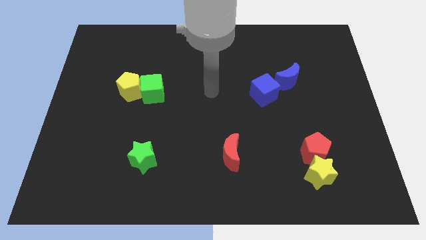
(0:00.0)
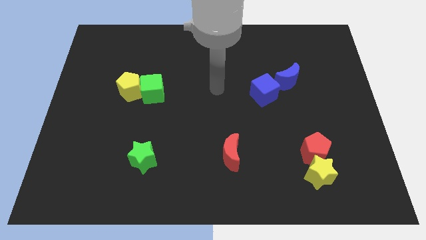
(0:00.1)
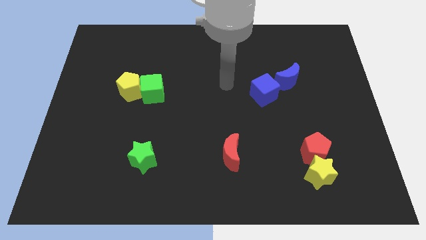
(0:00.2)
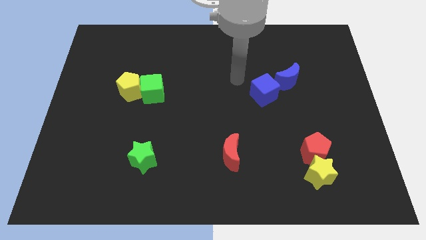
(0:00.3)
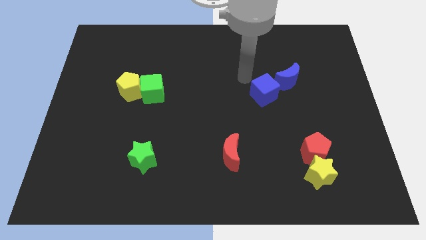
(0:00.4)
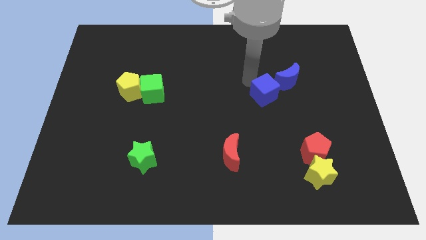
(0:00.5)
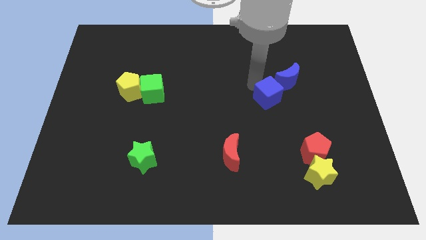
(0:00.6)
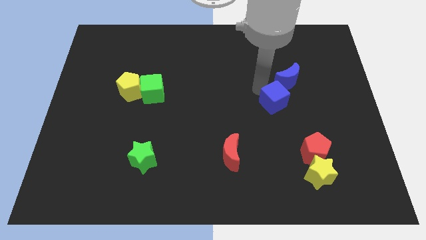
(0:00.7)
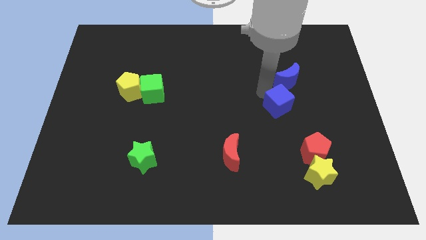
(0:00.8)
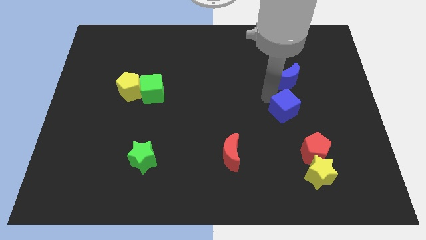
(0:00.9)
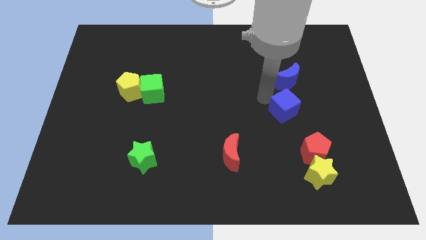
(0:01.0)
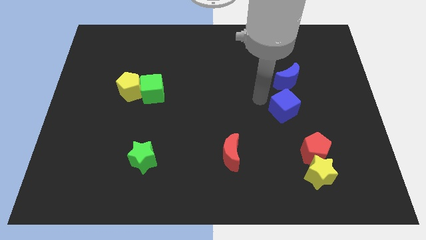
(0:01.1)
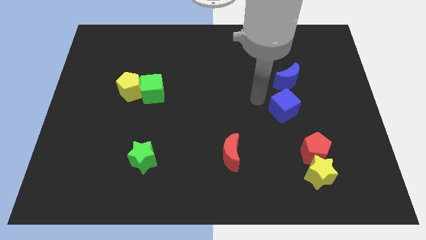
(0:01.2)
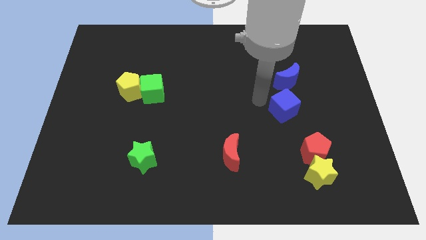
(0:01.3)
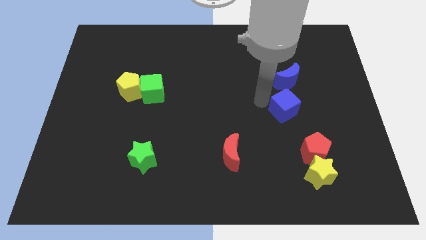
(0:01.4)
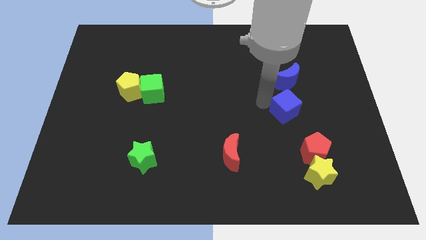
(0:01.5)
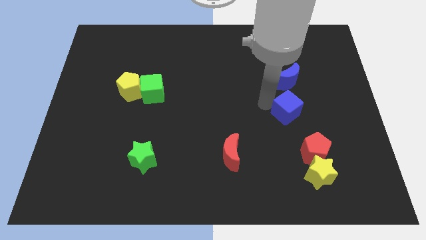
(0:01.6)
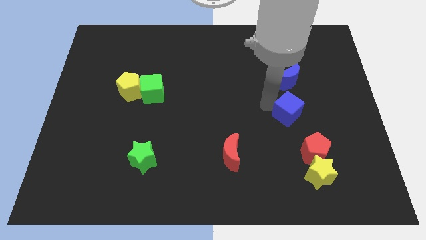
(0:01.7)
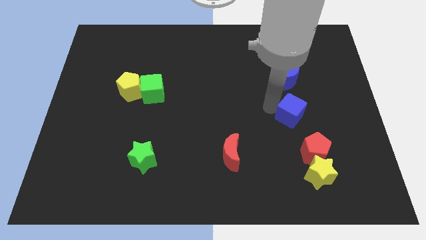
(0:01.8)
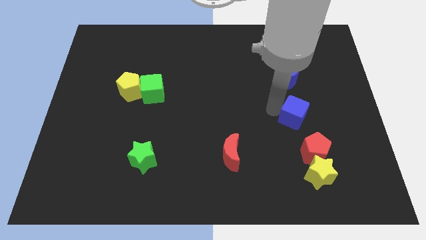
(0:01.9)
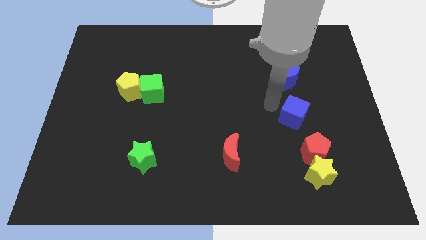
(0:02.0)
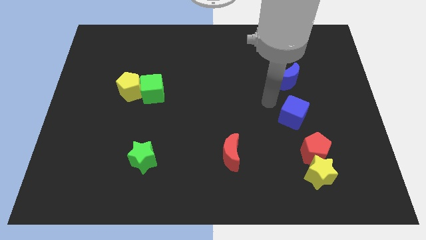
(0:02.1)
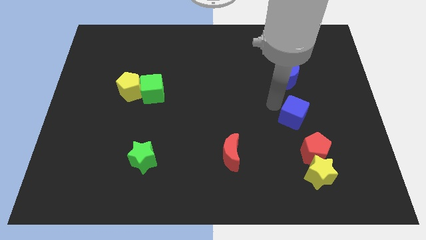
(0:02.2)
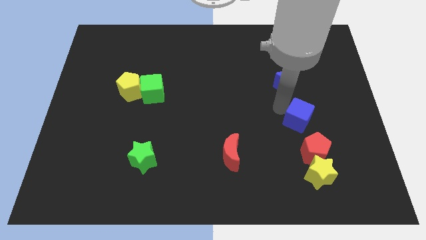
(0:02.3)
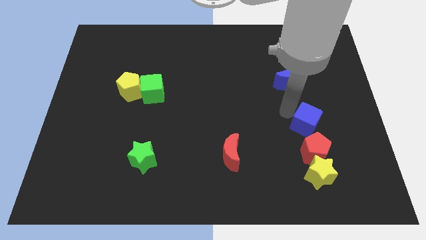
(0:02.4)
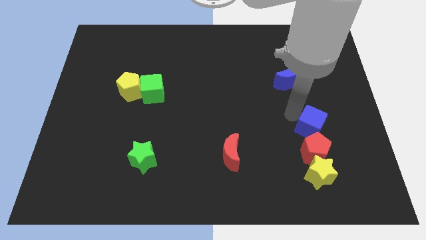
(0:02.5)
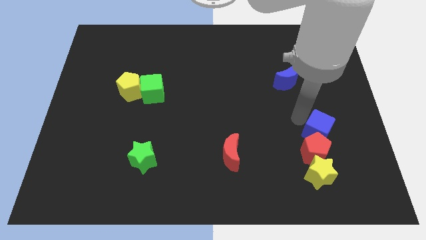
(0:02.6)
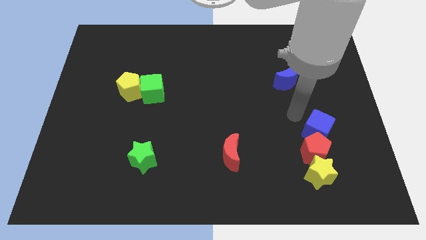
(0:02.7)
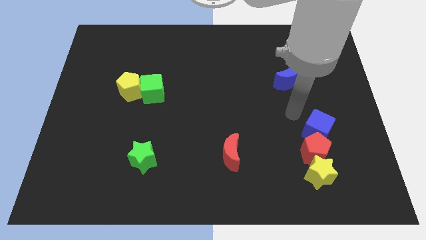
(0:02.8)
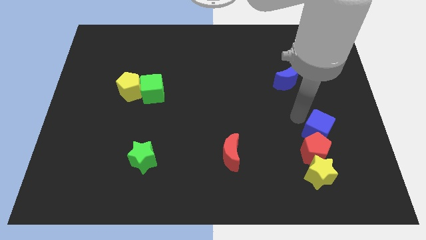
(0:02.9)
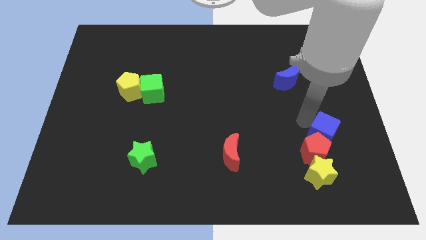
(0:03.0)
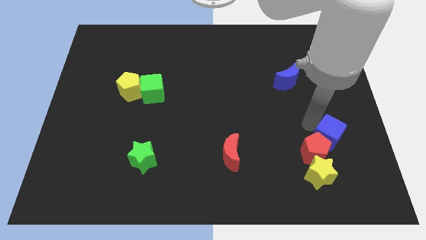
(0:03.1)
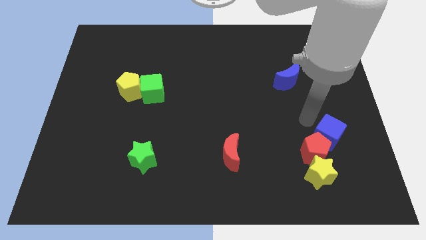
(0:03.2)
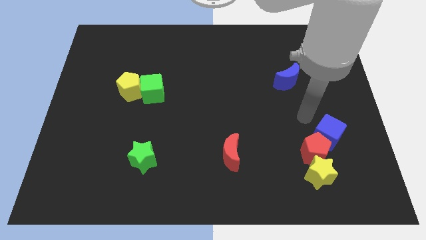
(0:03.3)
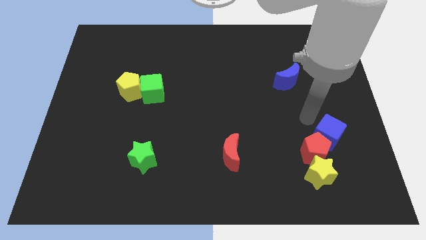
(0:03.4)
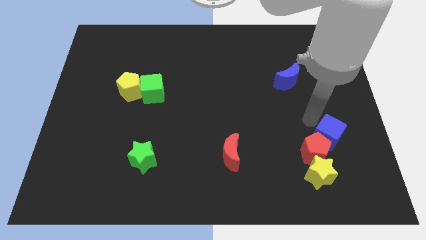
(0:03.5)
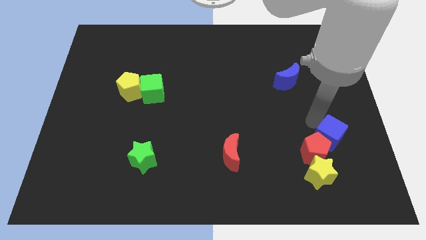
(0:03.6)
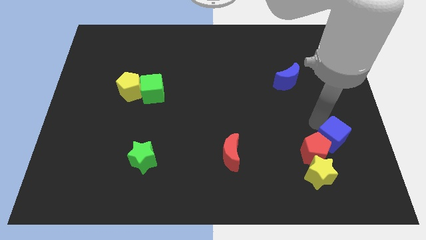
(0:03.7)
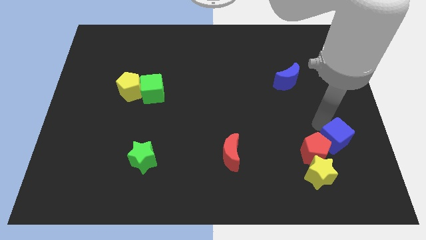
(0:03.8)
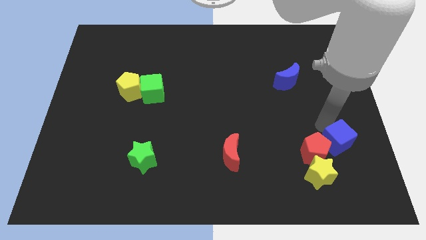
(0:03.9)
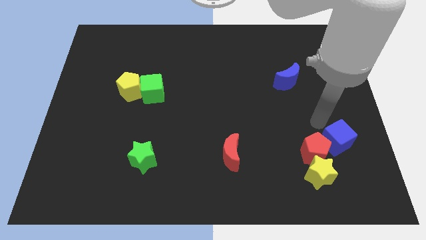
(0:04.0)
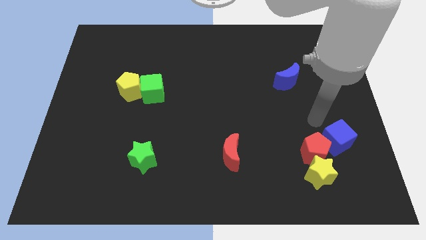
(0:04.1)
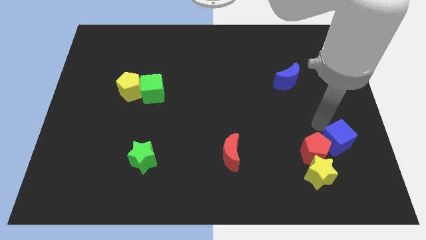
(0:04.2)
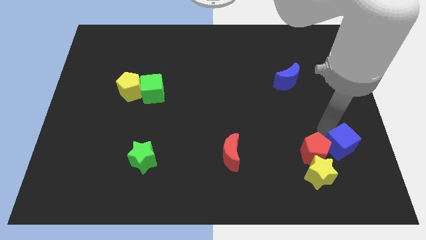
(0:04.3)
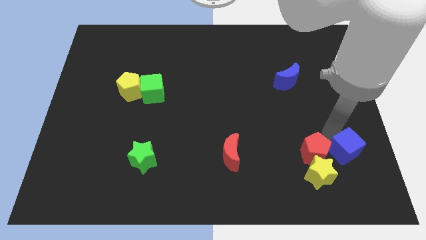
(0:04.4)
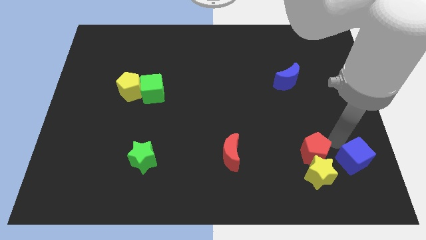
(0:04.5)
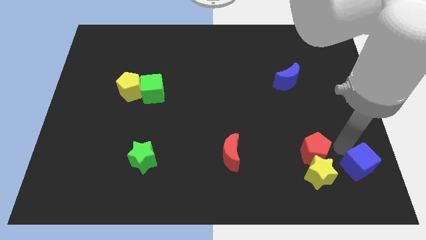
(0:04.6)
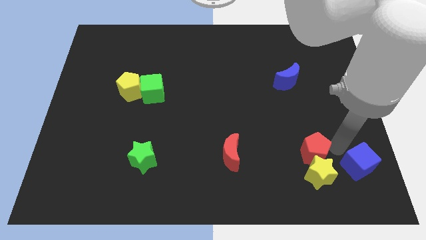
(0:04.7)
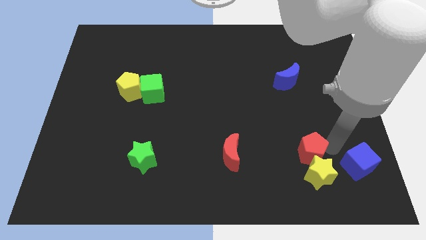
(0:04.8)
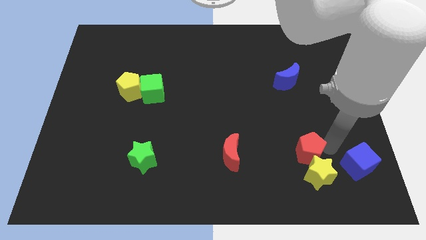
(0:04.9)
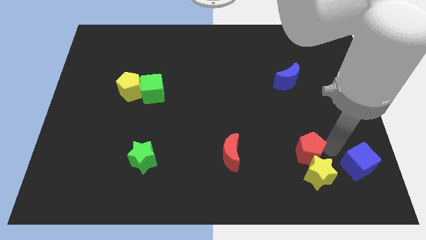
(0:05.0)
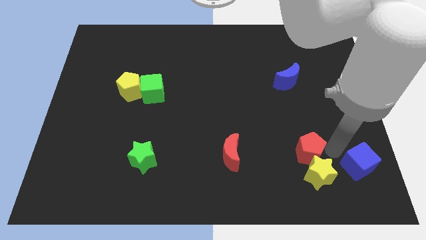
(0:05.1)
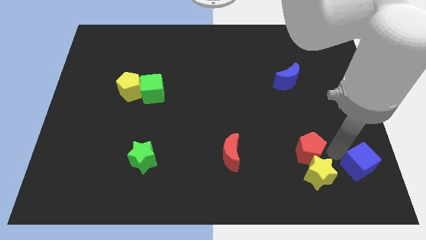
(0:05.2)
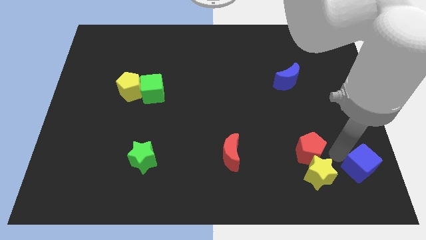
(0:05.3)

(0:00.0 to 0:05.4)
push the blue cube to the lower right corner

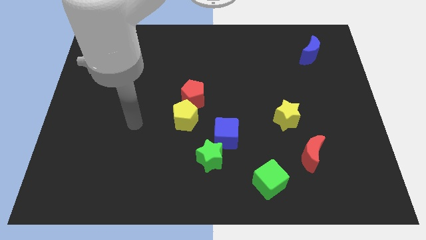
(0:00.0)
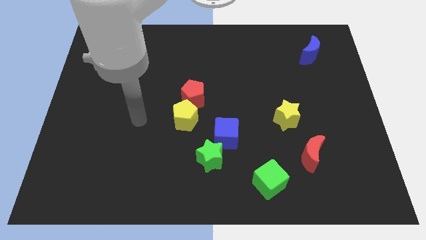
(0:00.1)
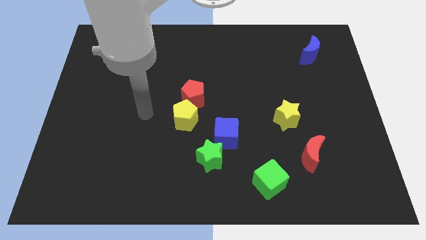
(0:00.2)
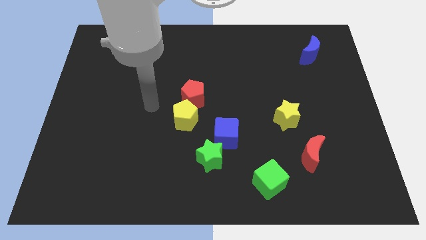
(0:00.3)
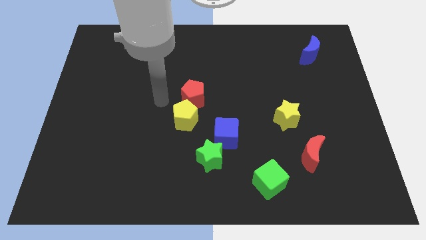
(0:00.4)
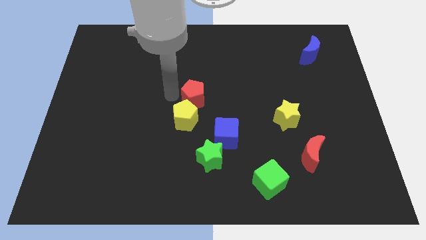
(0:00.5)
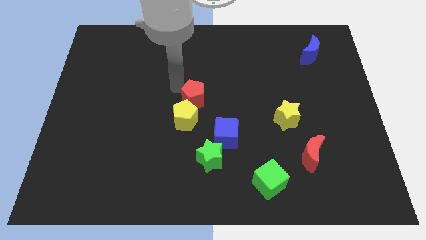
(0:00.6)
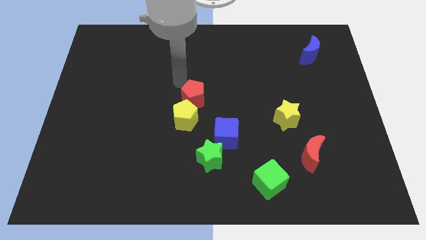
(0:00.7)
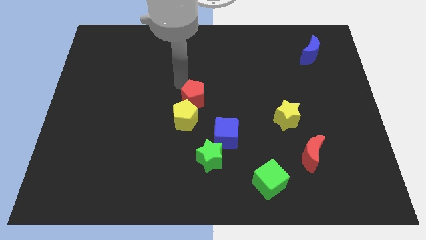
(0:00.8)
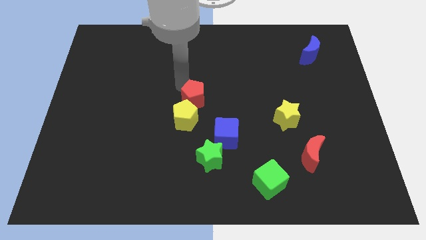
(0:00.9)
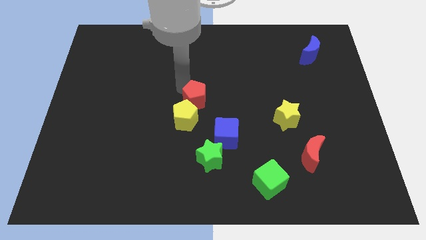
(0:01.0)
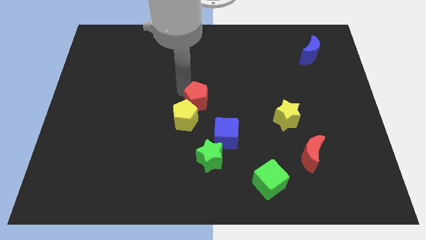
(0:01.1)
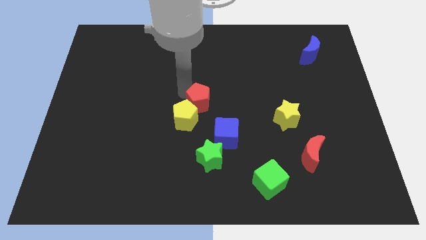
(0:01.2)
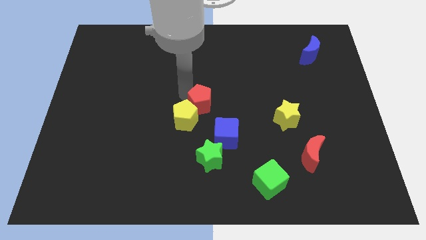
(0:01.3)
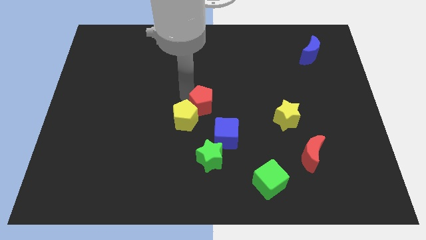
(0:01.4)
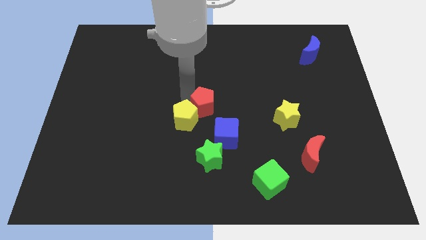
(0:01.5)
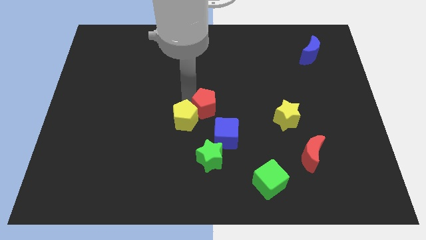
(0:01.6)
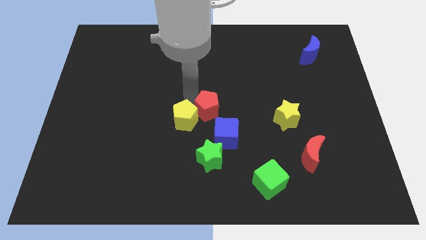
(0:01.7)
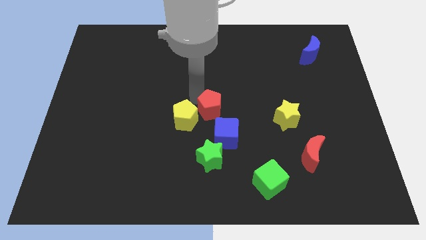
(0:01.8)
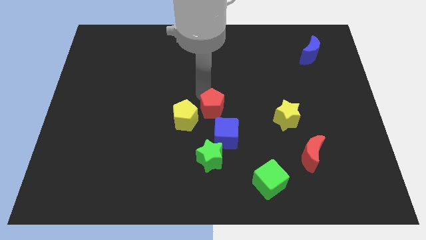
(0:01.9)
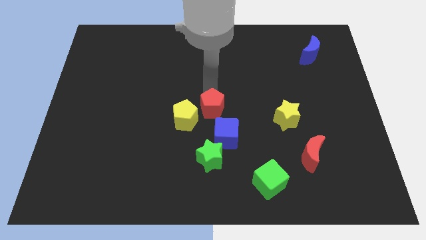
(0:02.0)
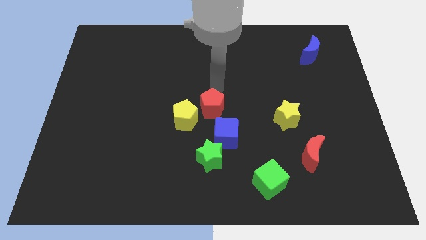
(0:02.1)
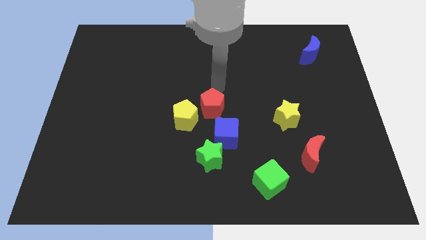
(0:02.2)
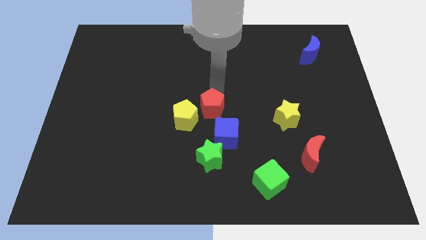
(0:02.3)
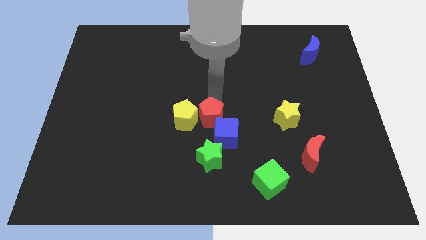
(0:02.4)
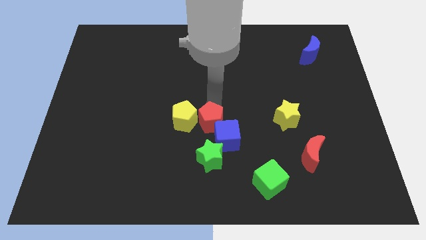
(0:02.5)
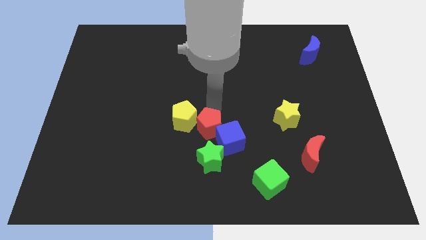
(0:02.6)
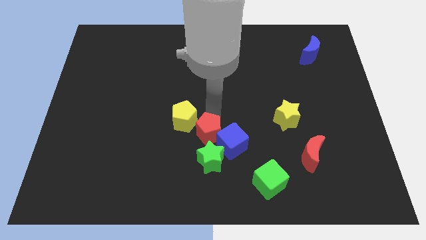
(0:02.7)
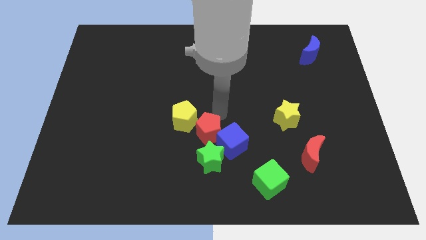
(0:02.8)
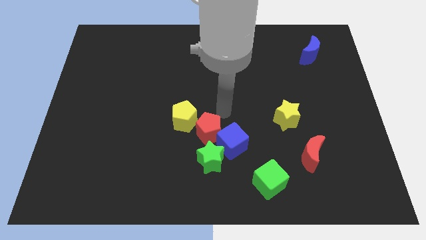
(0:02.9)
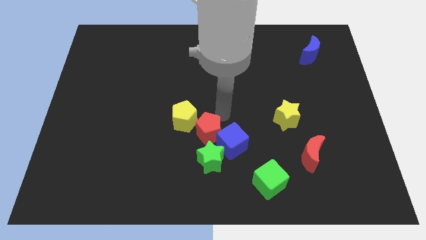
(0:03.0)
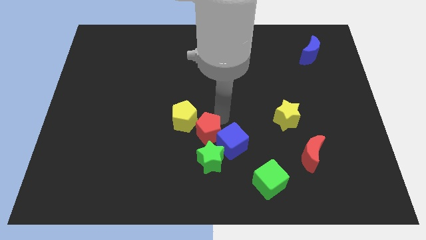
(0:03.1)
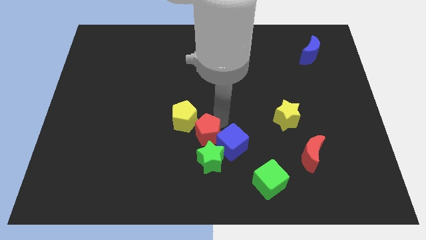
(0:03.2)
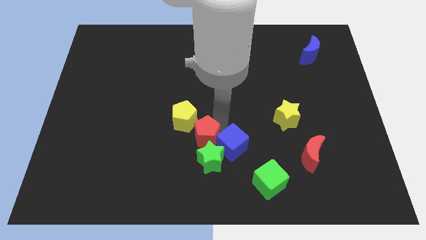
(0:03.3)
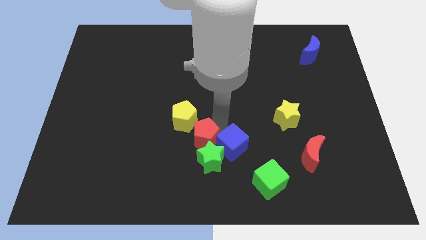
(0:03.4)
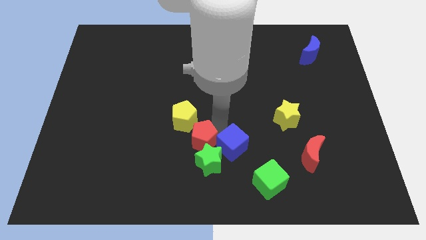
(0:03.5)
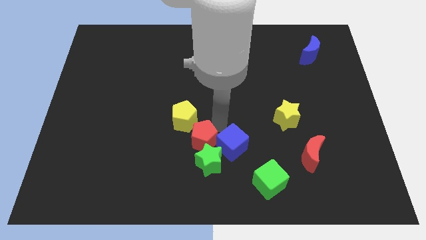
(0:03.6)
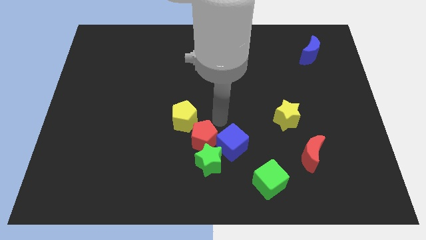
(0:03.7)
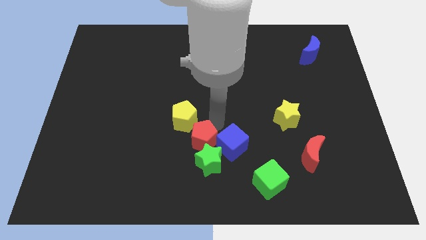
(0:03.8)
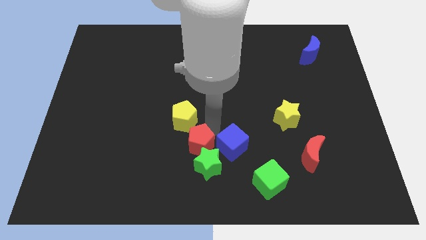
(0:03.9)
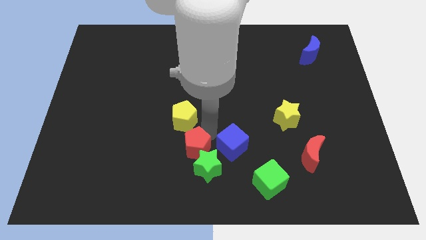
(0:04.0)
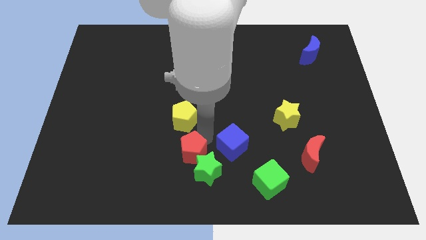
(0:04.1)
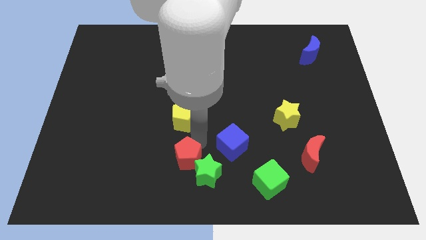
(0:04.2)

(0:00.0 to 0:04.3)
push the red pentagon to the bottom
